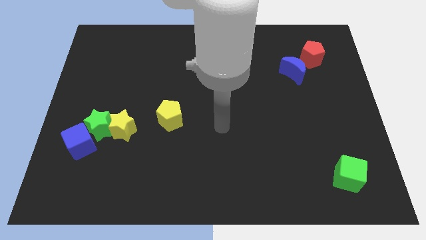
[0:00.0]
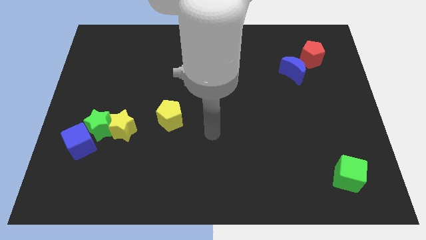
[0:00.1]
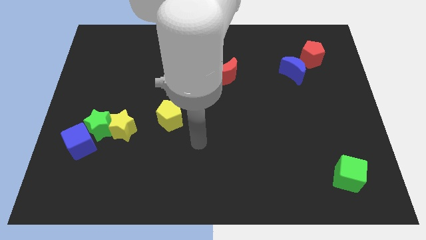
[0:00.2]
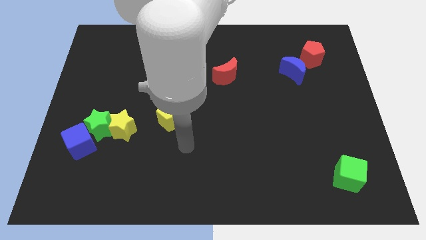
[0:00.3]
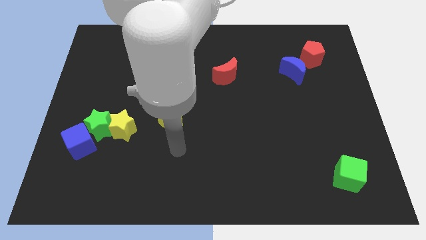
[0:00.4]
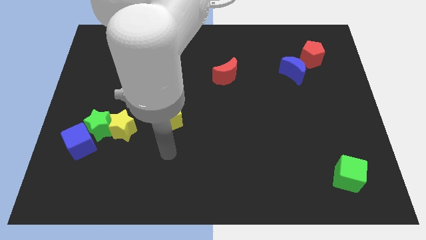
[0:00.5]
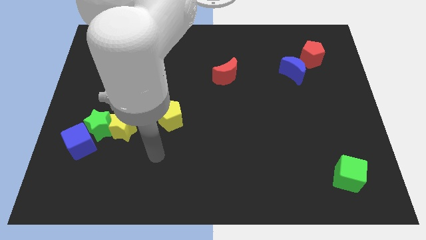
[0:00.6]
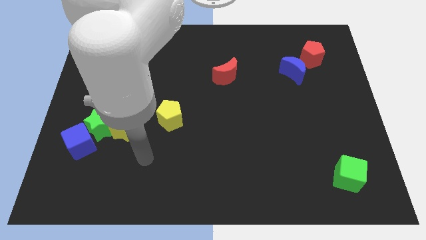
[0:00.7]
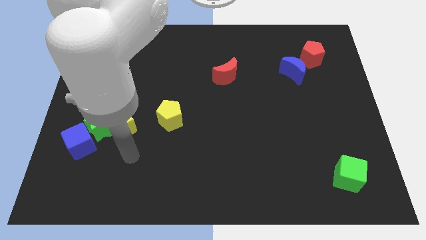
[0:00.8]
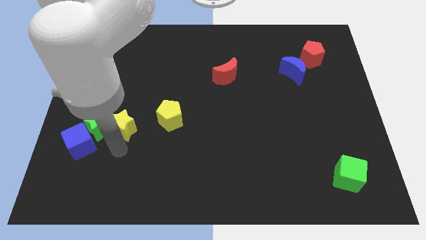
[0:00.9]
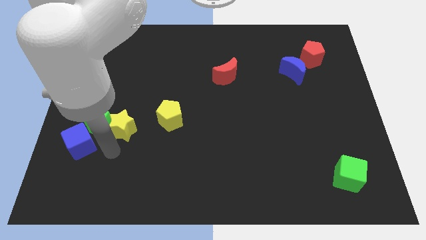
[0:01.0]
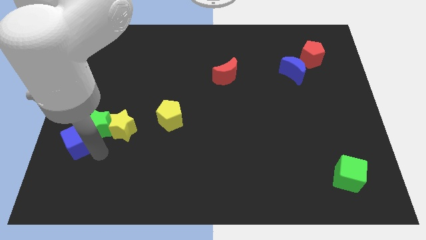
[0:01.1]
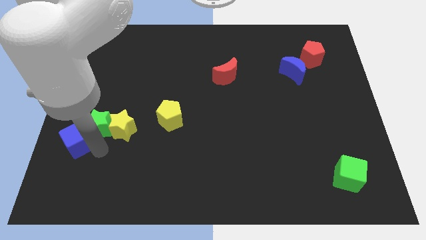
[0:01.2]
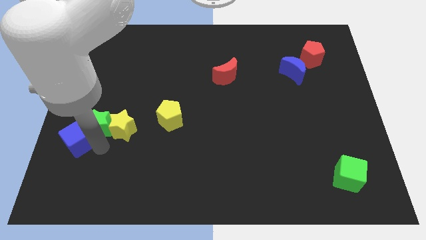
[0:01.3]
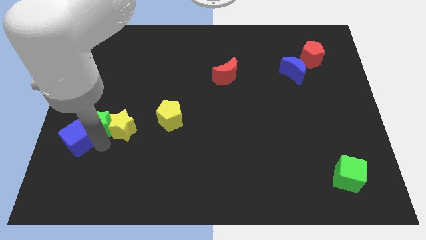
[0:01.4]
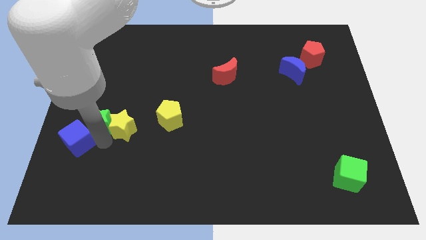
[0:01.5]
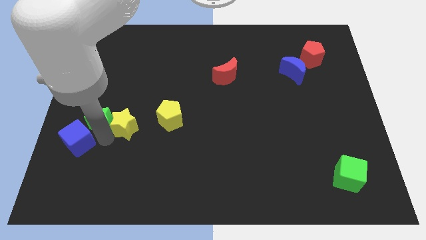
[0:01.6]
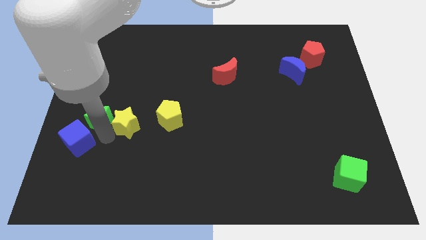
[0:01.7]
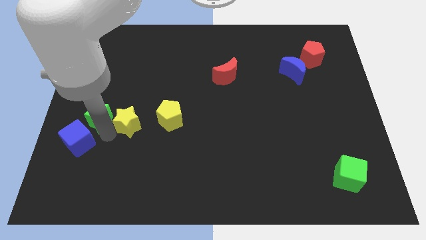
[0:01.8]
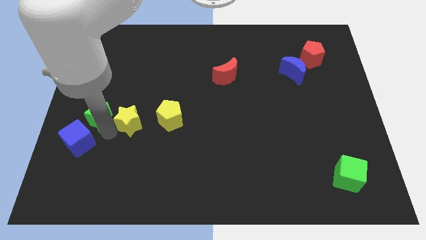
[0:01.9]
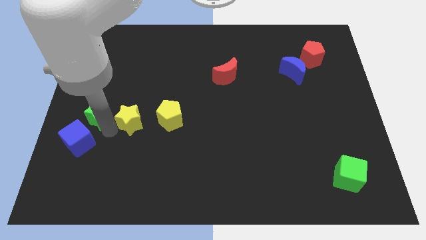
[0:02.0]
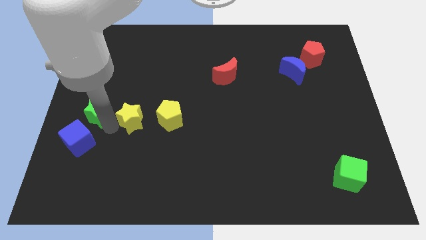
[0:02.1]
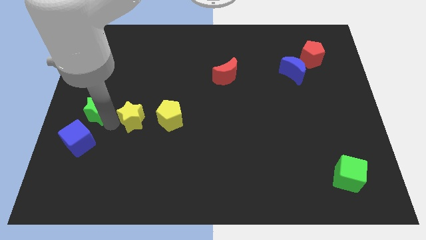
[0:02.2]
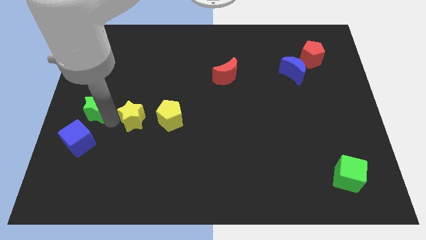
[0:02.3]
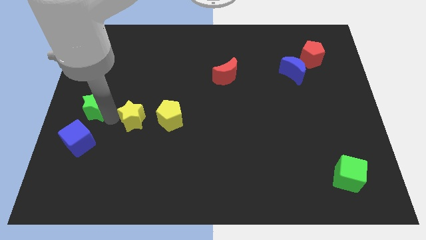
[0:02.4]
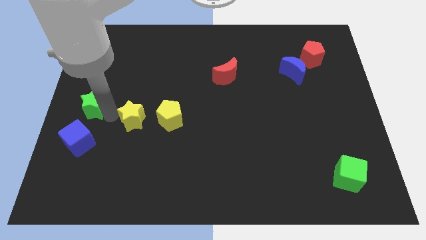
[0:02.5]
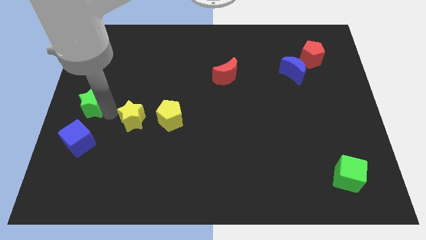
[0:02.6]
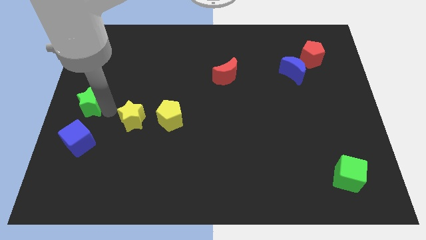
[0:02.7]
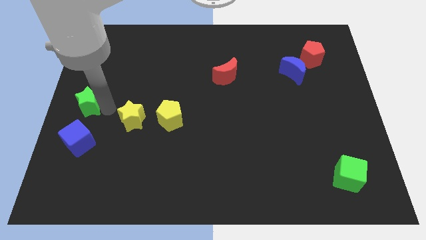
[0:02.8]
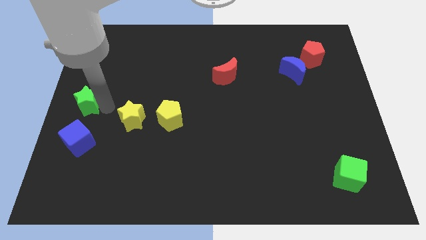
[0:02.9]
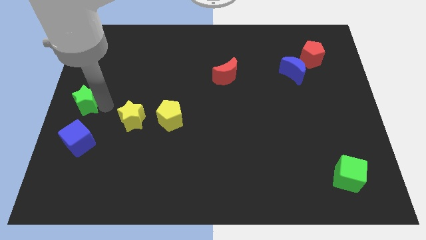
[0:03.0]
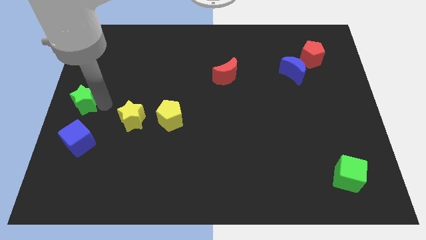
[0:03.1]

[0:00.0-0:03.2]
separate the green star from the yellow star and blue cube

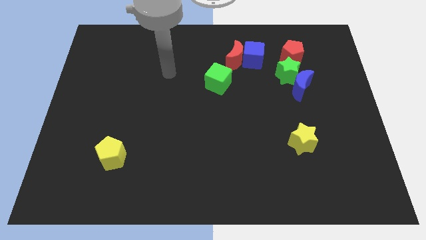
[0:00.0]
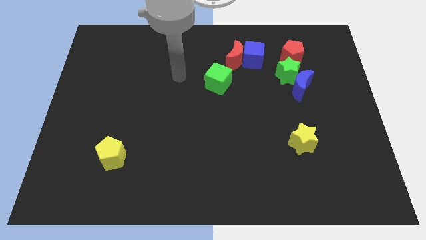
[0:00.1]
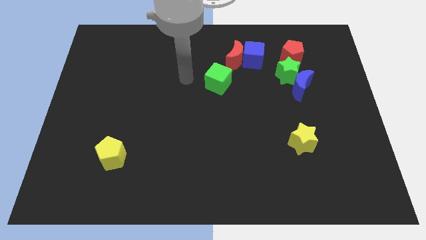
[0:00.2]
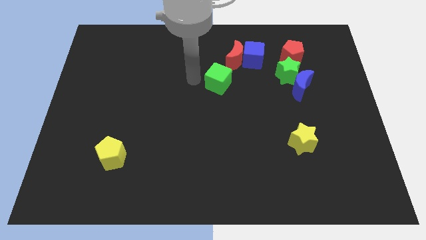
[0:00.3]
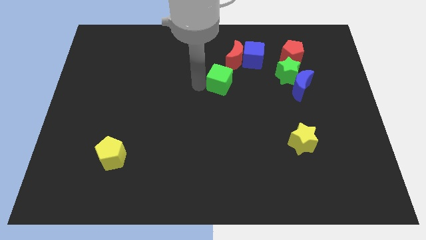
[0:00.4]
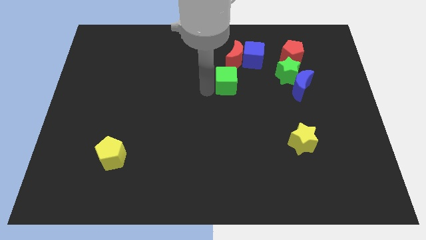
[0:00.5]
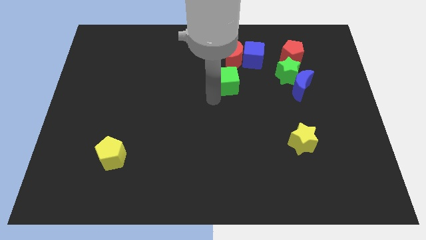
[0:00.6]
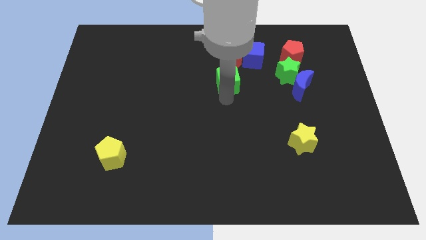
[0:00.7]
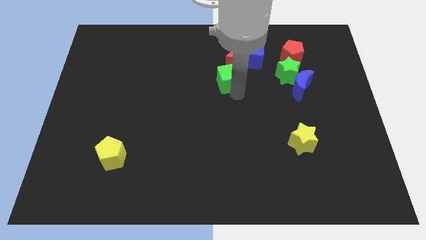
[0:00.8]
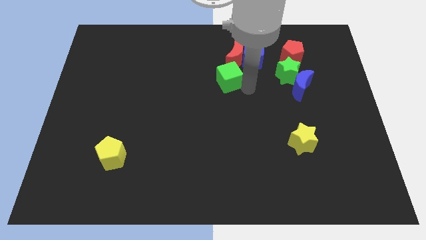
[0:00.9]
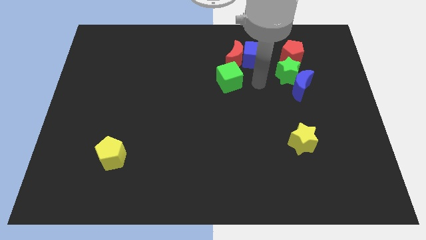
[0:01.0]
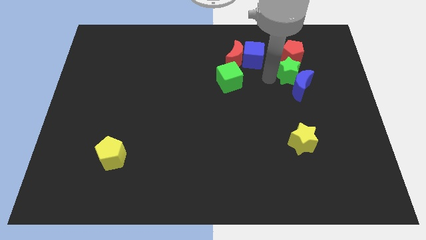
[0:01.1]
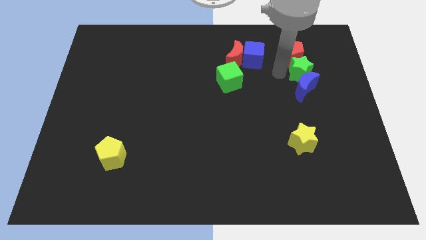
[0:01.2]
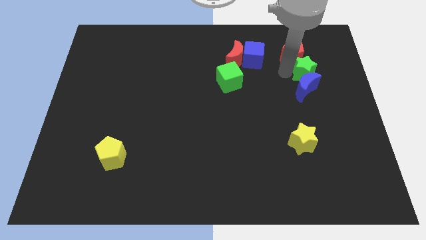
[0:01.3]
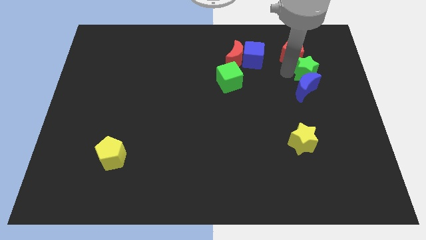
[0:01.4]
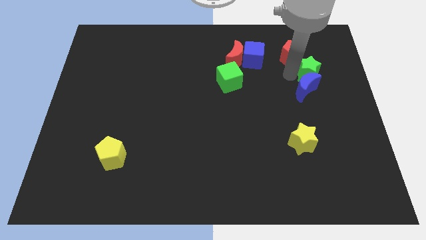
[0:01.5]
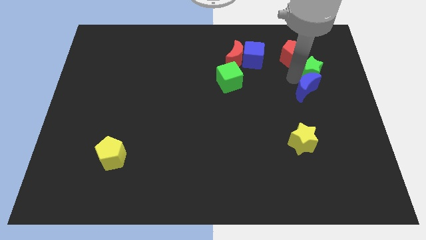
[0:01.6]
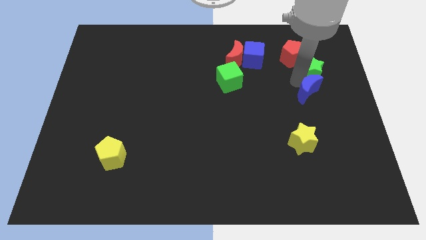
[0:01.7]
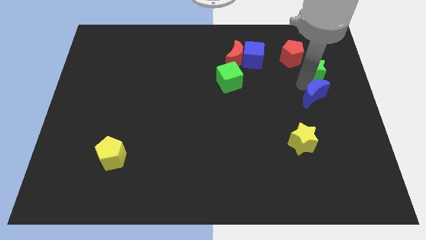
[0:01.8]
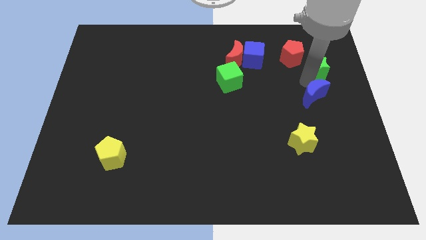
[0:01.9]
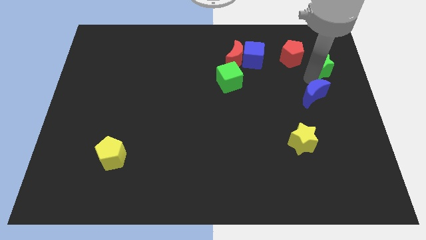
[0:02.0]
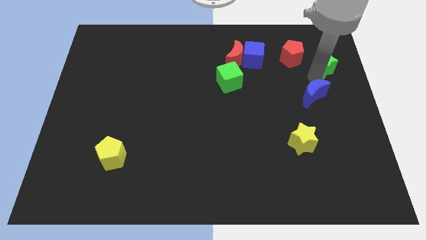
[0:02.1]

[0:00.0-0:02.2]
separate the blue moon from the green star

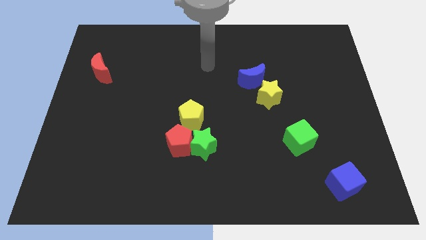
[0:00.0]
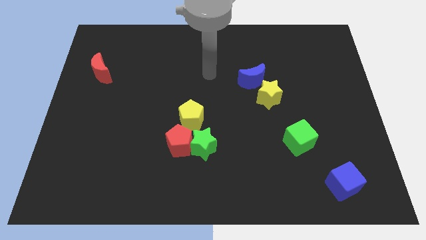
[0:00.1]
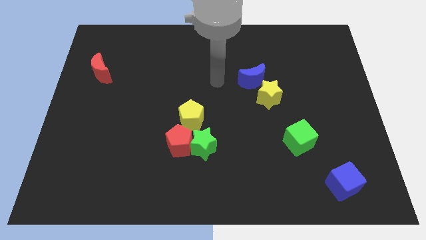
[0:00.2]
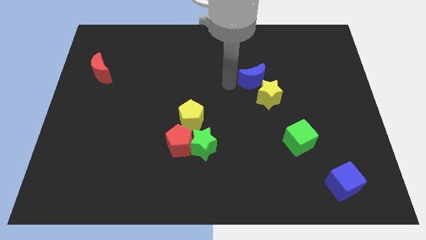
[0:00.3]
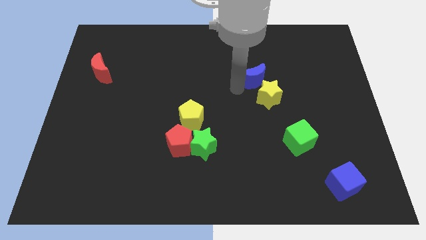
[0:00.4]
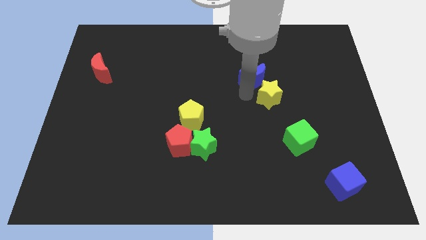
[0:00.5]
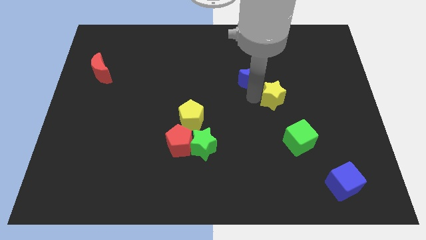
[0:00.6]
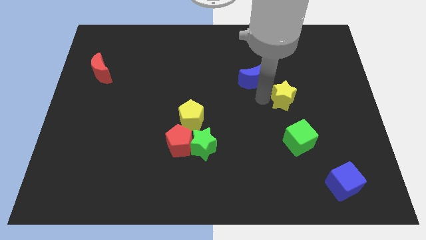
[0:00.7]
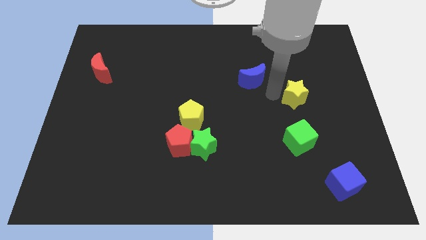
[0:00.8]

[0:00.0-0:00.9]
move the blue moon away from the yellow star

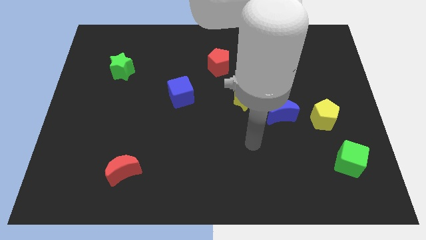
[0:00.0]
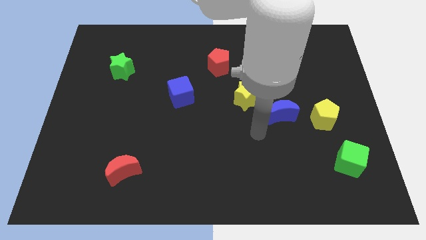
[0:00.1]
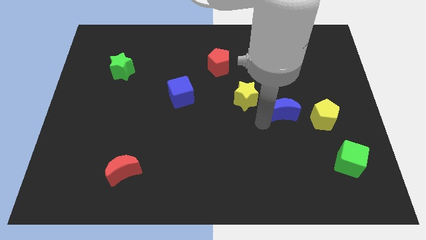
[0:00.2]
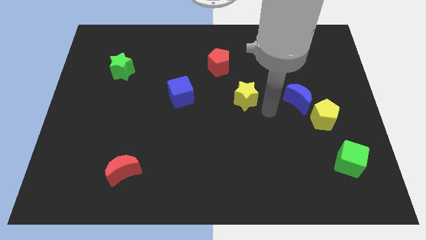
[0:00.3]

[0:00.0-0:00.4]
move the yellow star away from the blue moon

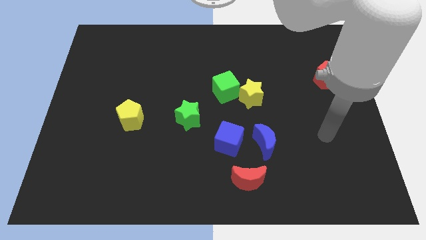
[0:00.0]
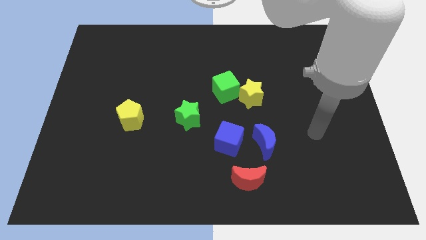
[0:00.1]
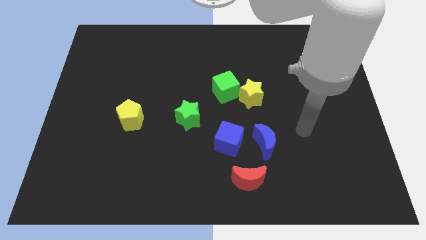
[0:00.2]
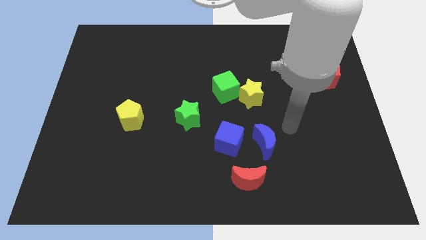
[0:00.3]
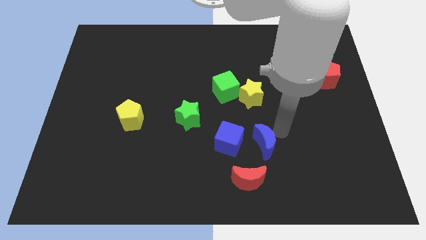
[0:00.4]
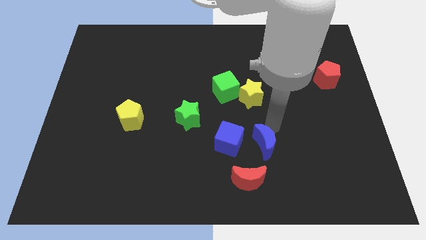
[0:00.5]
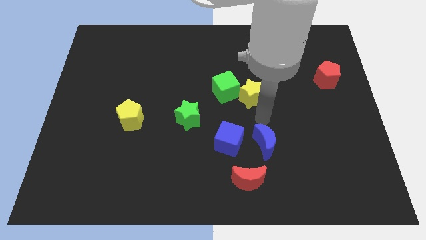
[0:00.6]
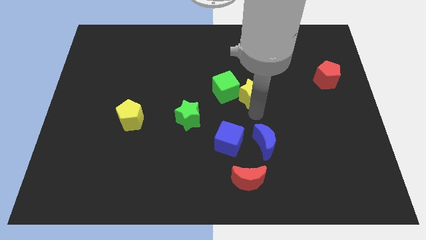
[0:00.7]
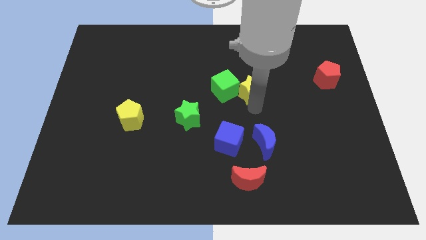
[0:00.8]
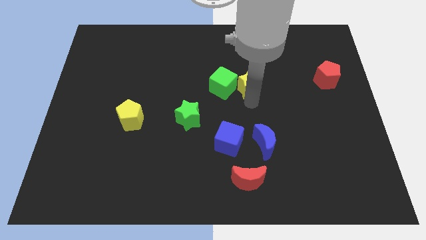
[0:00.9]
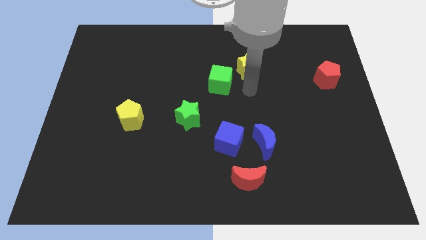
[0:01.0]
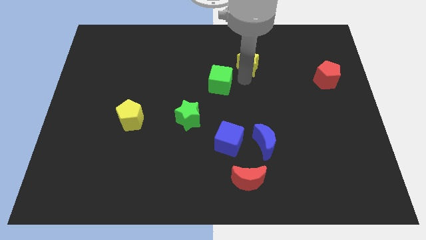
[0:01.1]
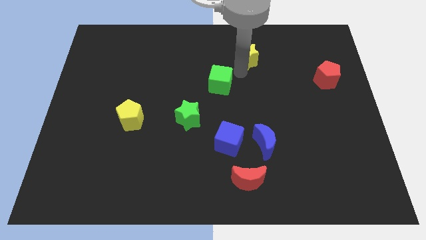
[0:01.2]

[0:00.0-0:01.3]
separate the green cube from the yellow star

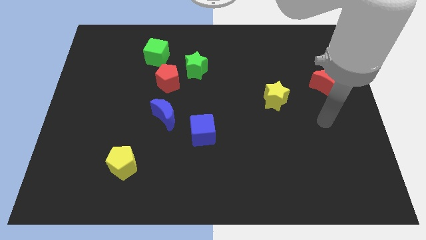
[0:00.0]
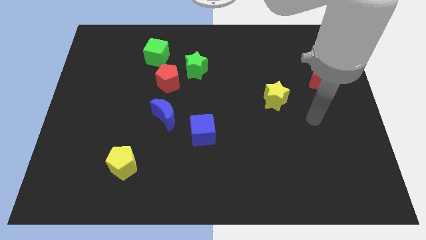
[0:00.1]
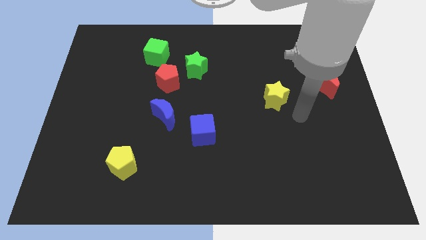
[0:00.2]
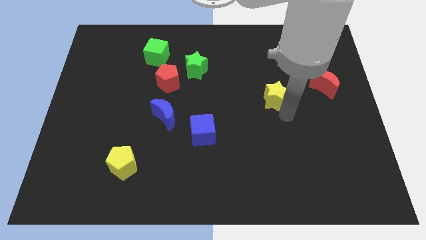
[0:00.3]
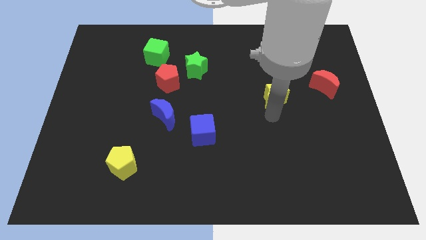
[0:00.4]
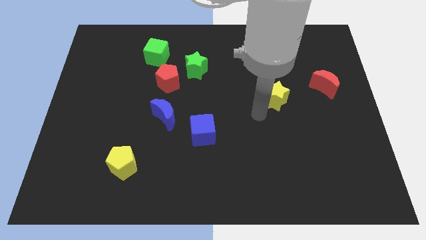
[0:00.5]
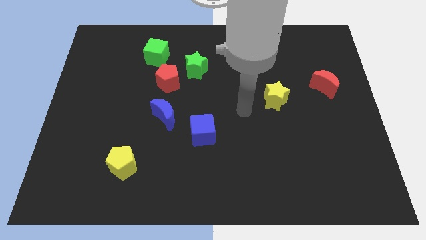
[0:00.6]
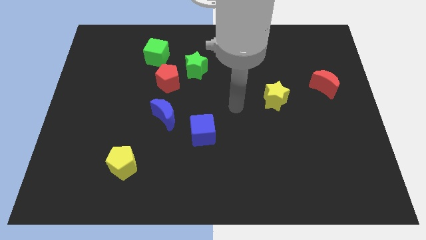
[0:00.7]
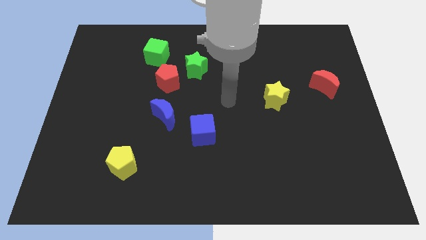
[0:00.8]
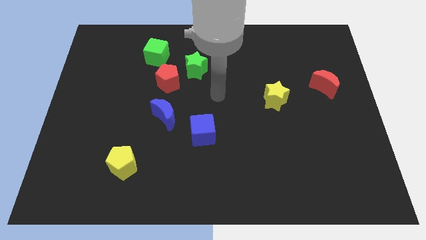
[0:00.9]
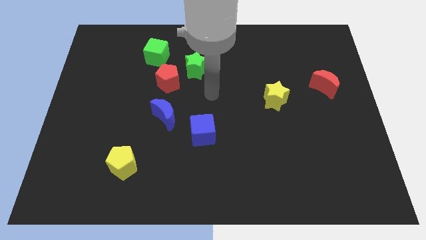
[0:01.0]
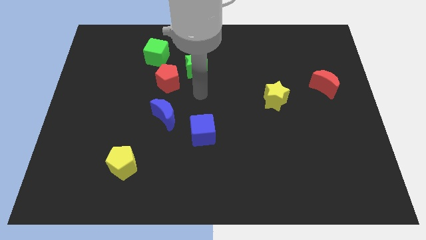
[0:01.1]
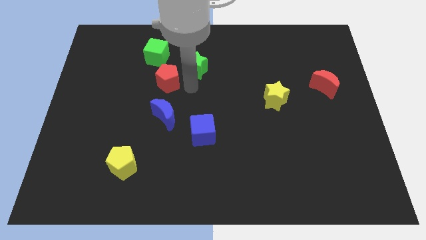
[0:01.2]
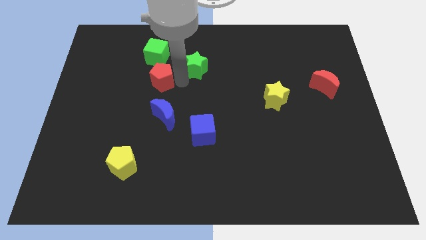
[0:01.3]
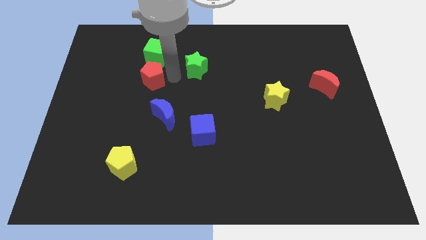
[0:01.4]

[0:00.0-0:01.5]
separate the green star from the red pentagon
